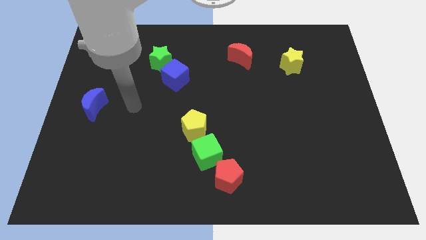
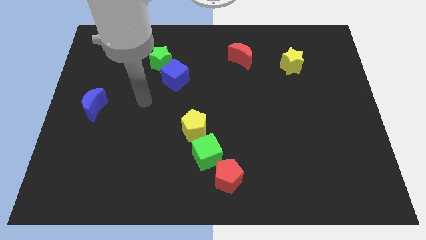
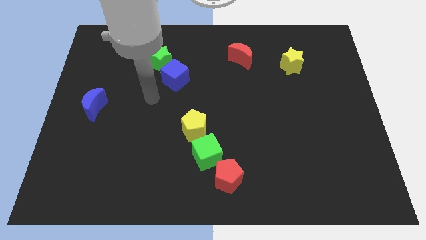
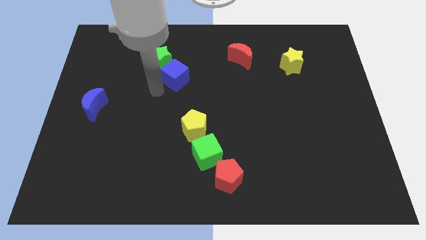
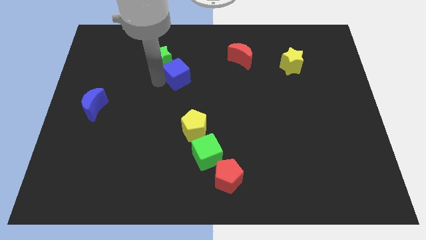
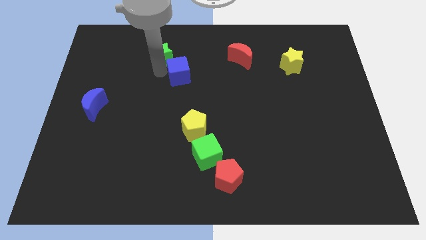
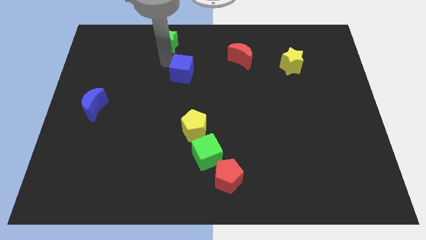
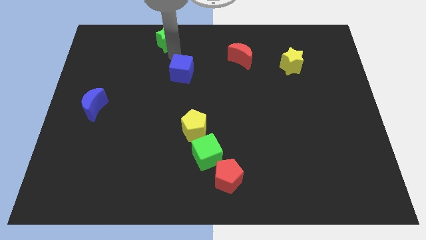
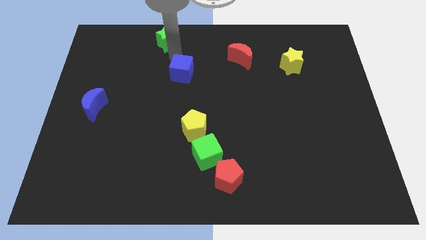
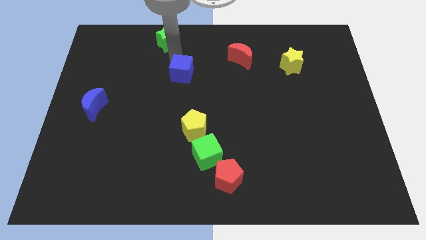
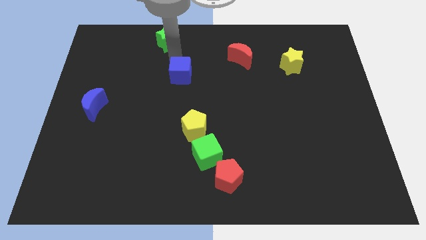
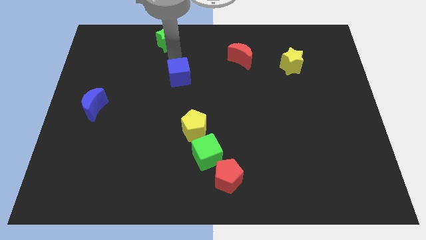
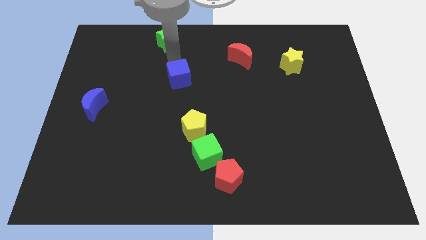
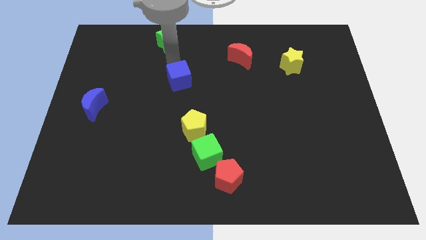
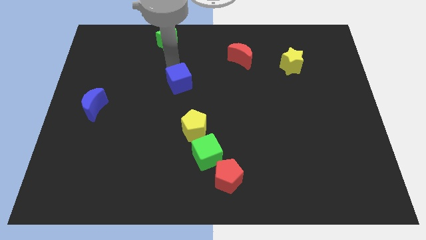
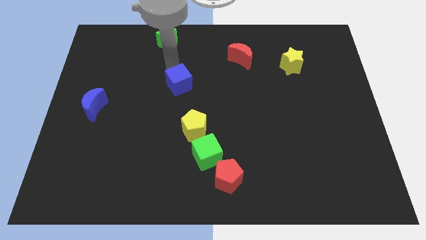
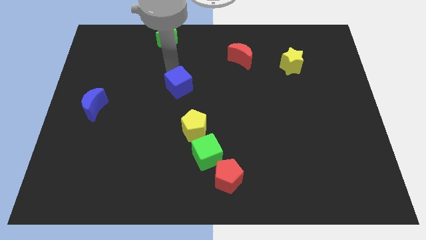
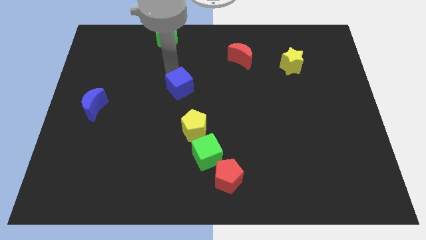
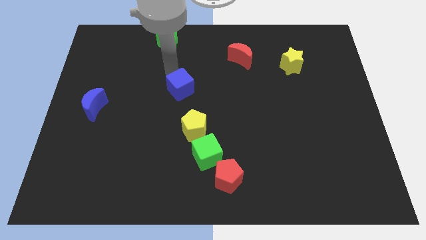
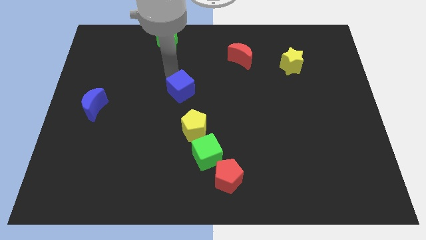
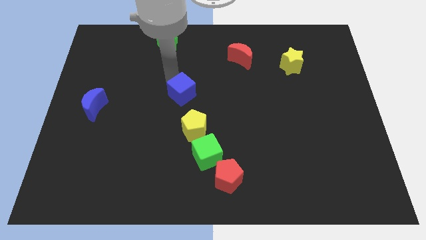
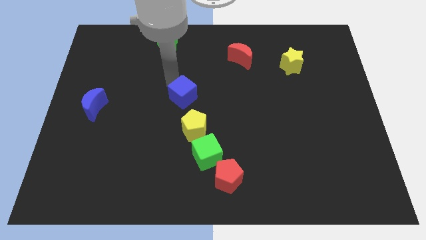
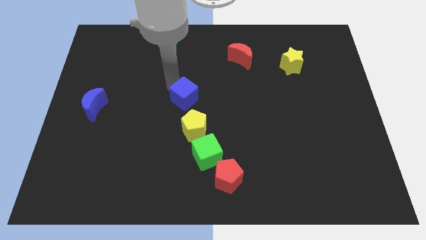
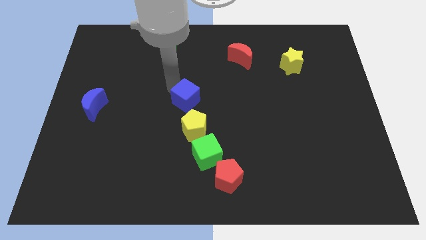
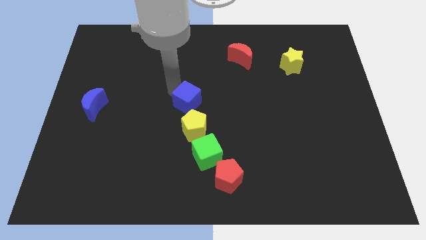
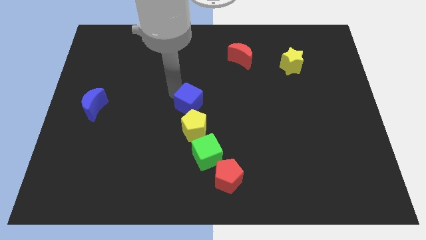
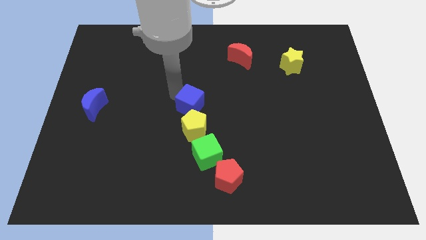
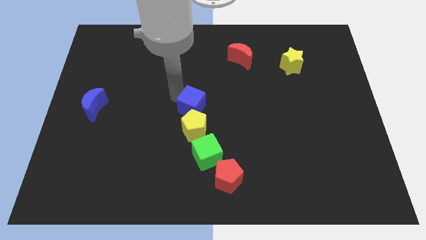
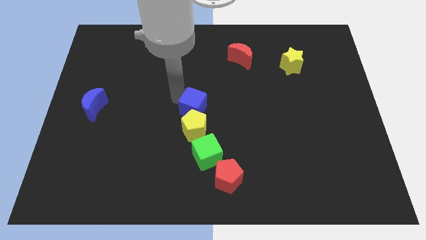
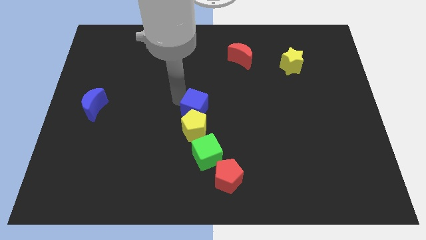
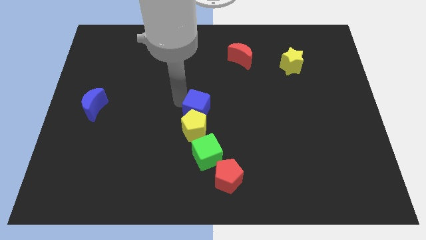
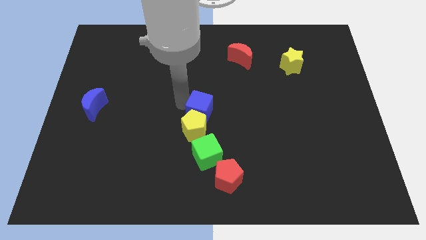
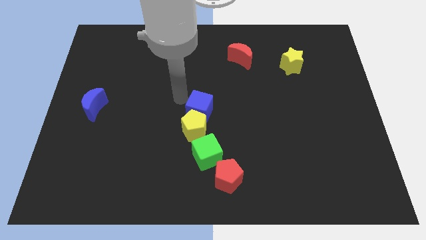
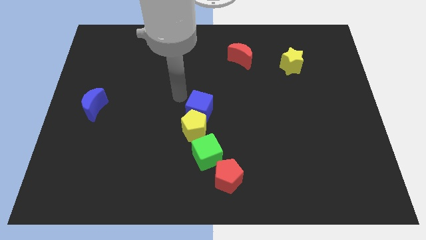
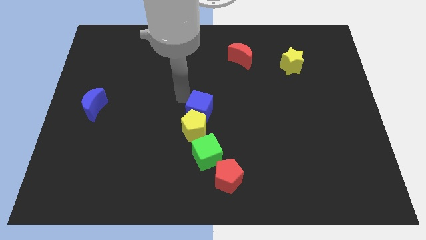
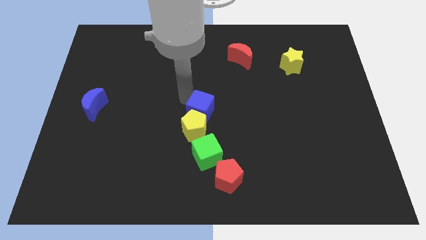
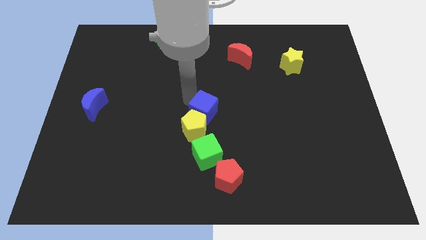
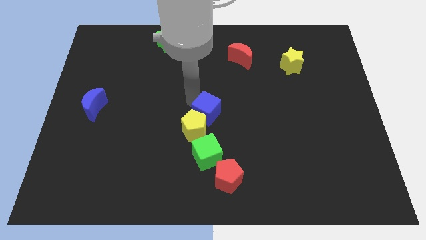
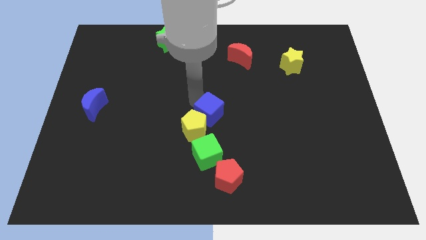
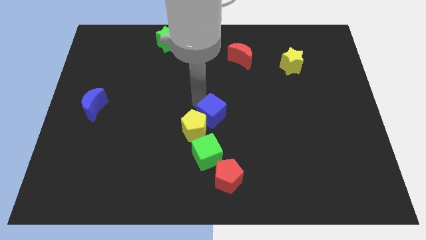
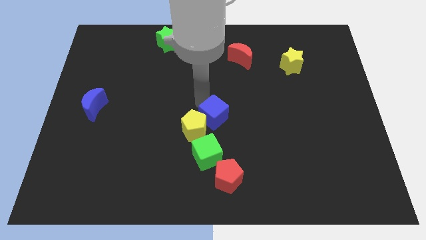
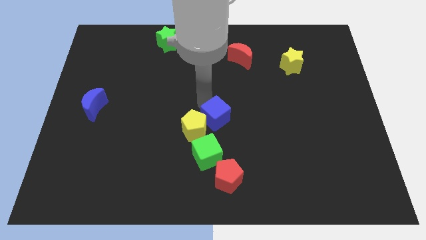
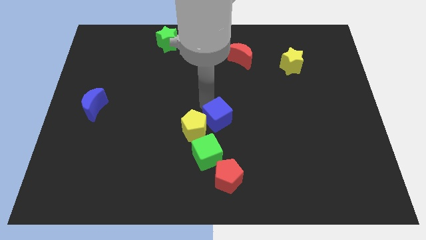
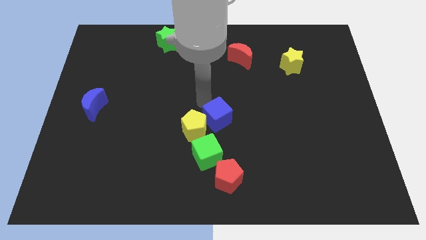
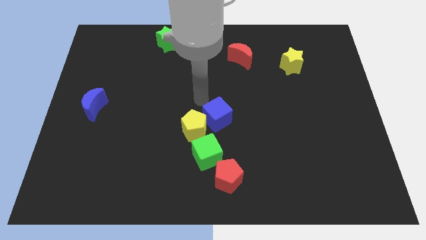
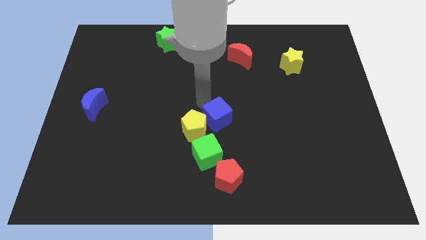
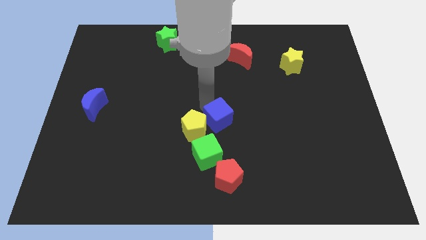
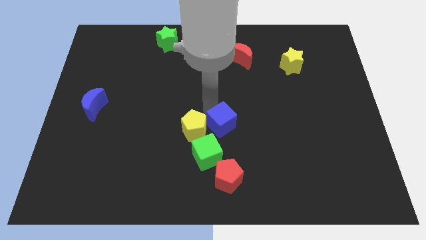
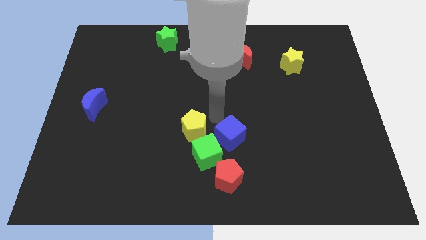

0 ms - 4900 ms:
push the blue cube right of the green cube

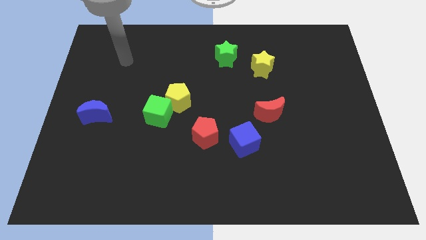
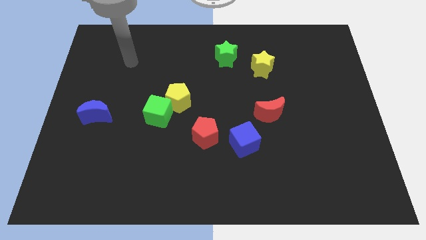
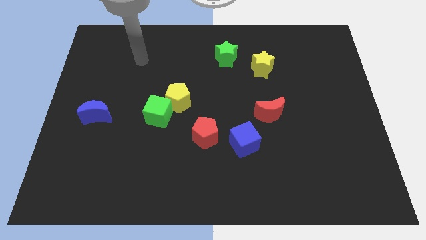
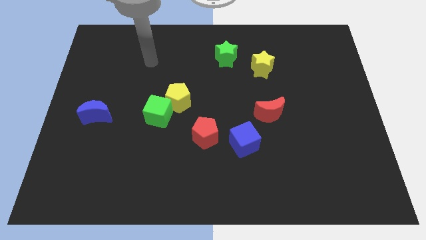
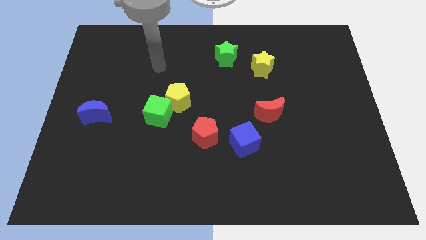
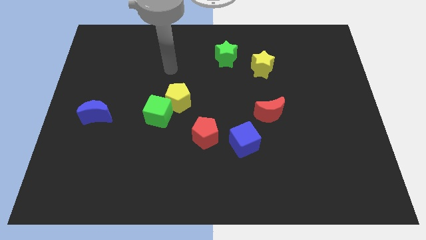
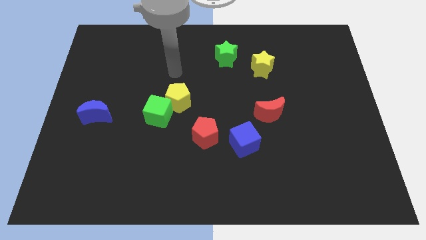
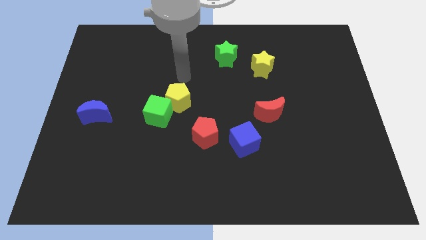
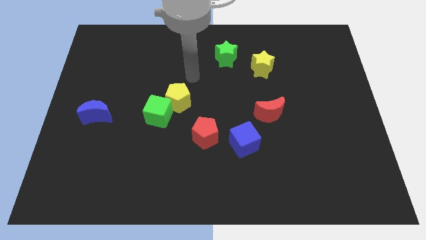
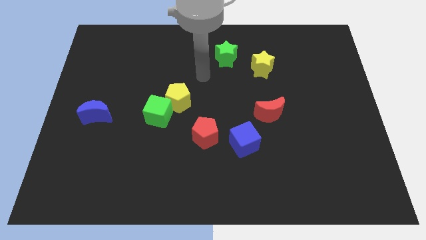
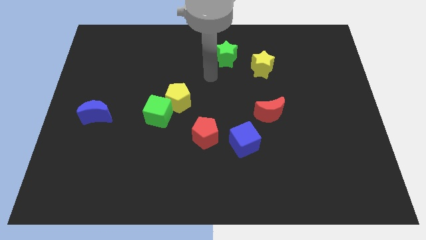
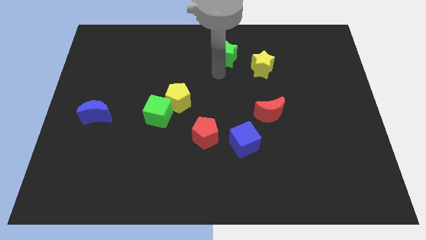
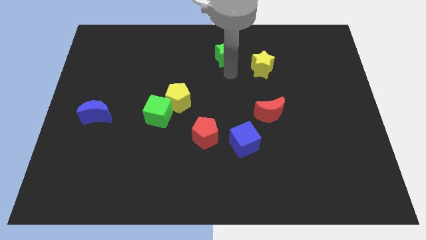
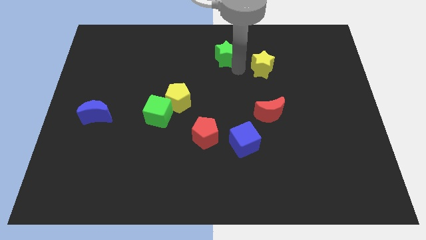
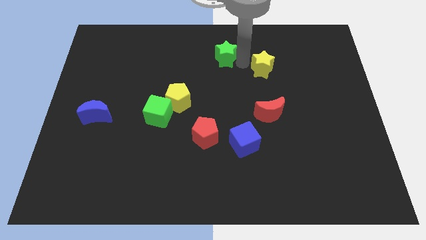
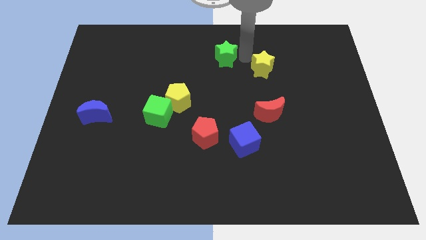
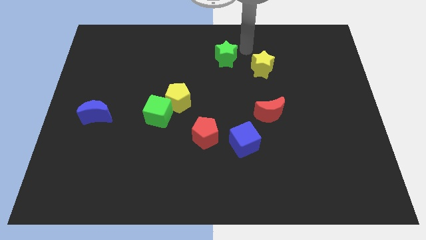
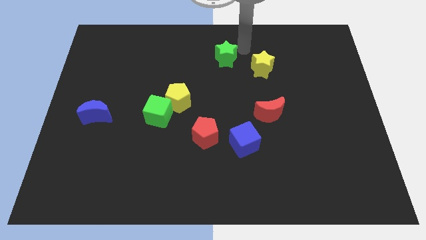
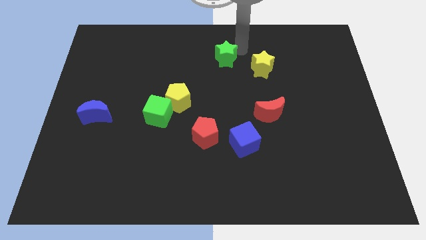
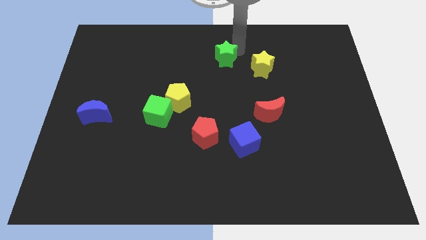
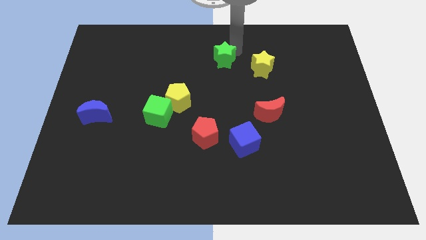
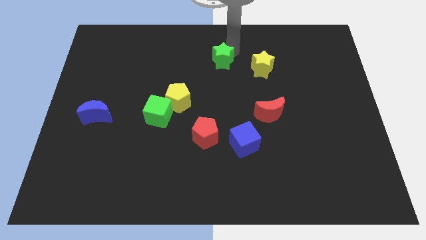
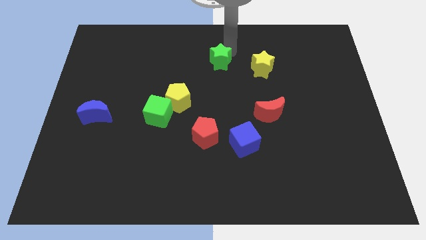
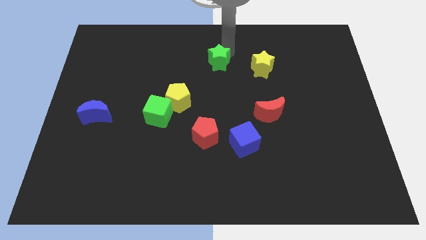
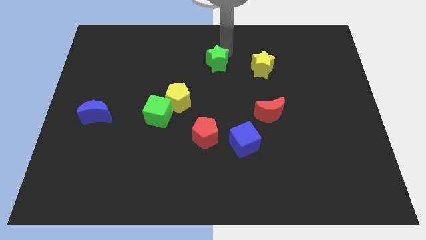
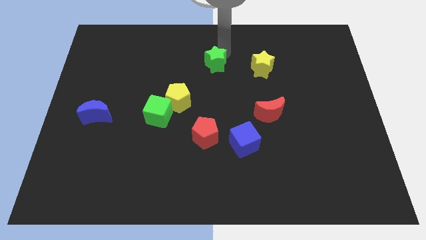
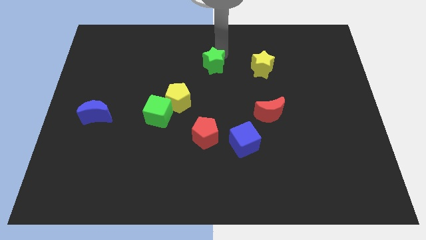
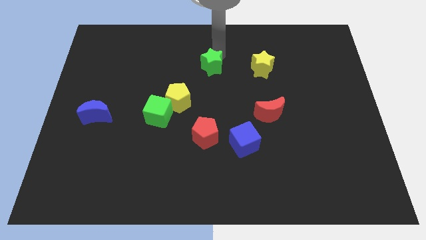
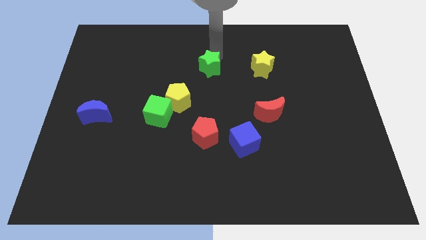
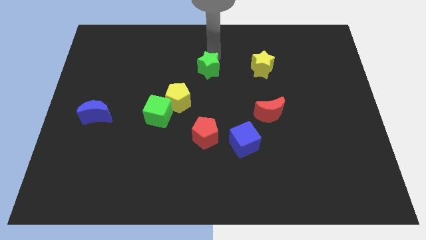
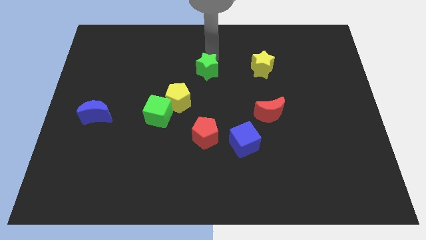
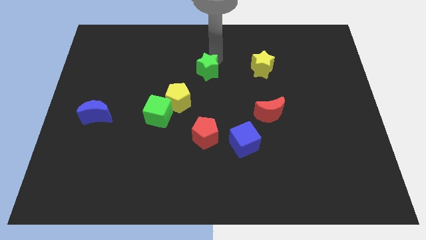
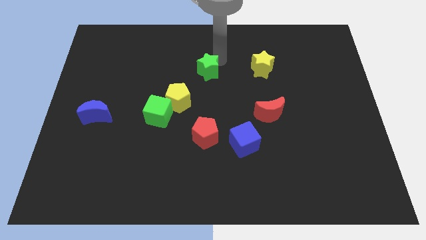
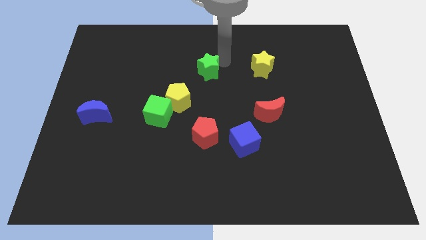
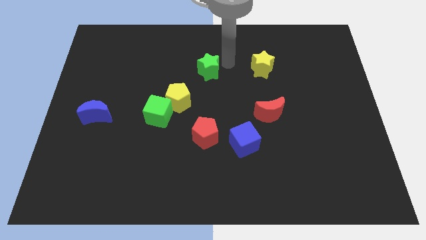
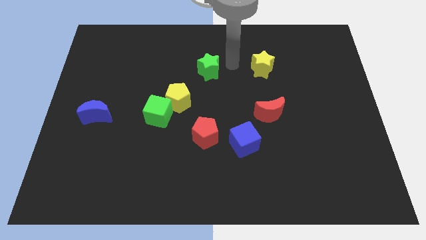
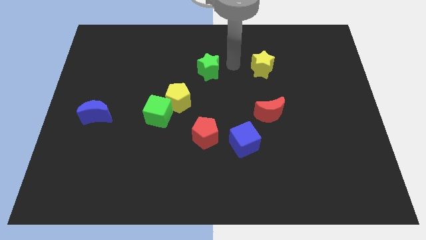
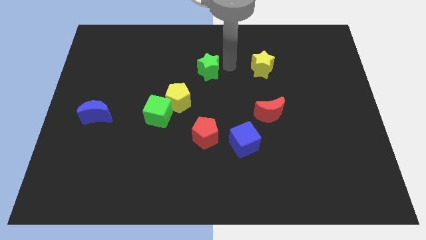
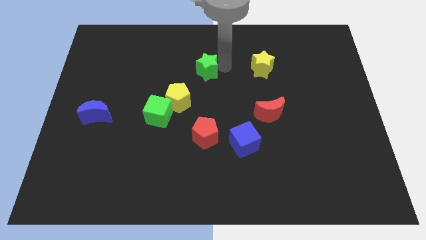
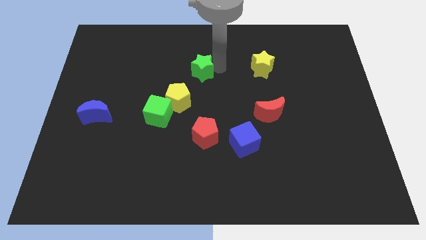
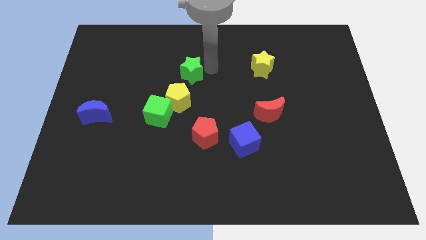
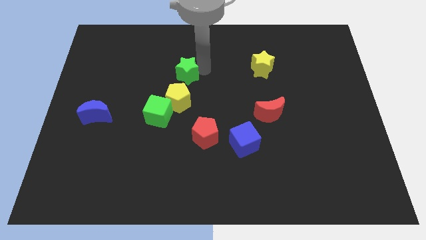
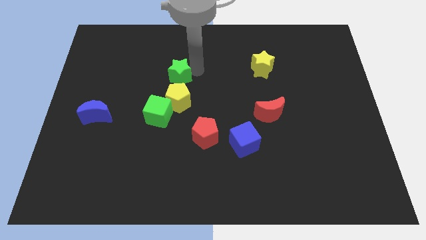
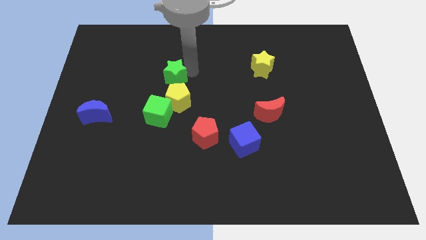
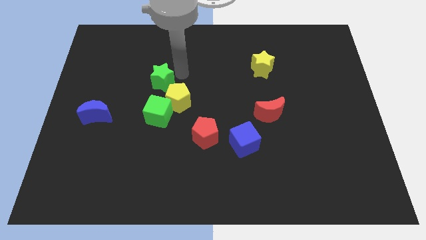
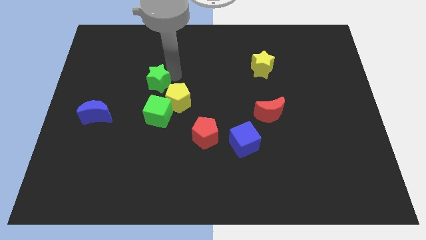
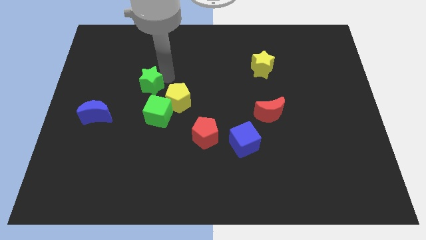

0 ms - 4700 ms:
push the green star to the top left side of the green cube
